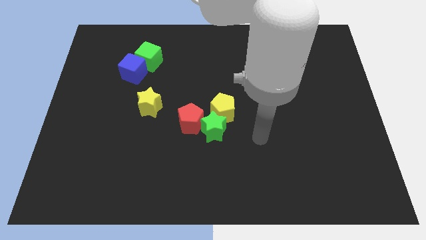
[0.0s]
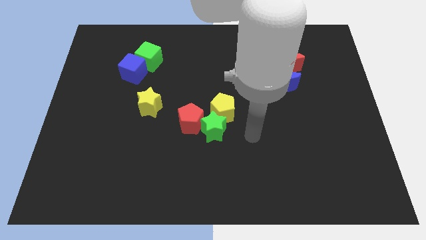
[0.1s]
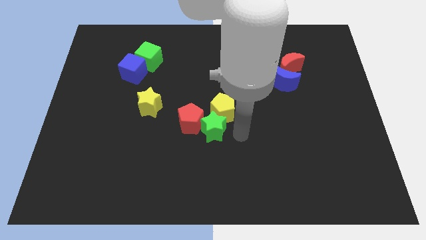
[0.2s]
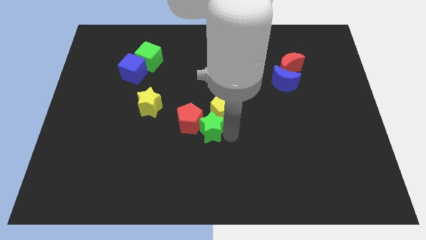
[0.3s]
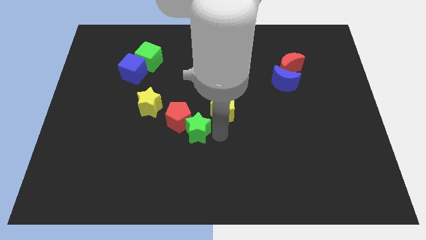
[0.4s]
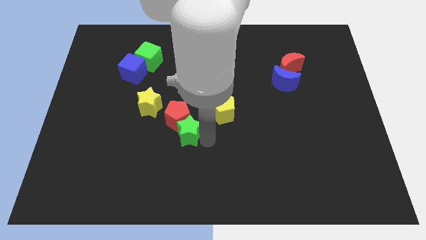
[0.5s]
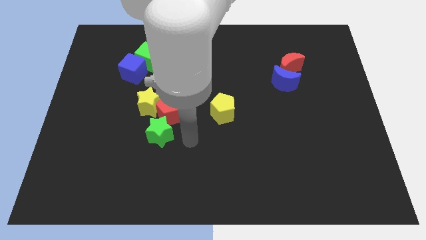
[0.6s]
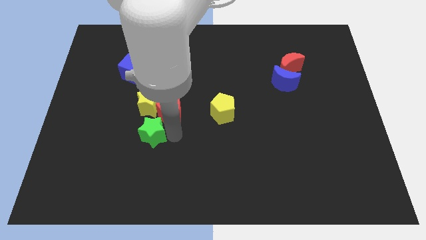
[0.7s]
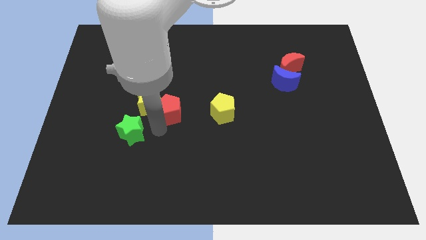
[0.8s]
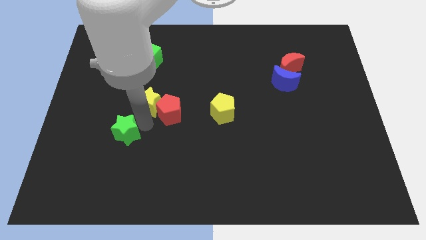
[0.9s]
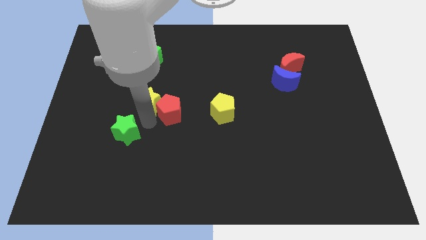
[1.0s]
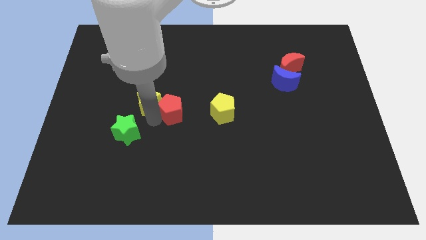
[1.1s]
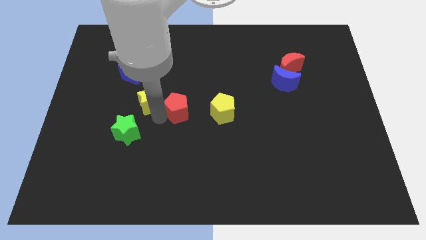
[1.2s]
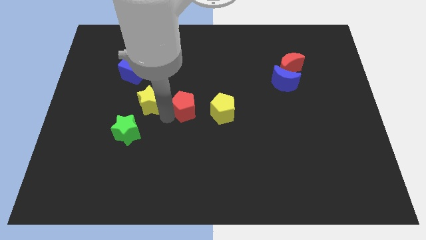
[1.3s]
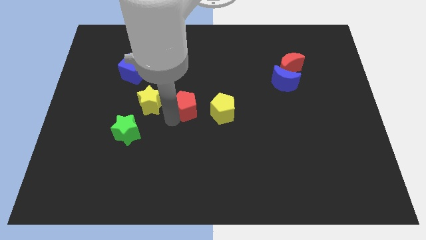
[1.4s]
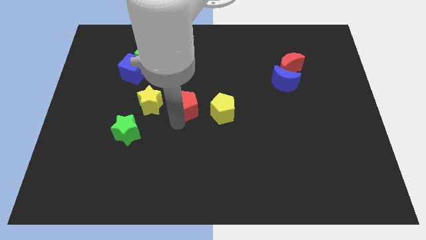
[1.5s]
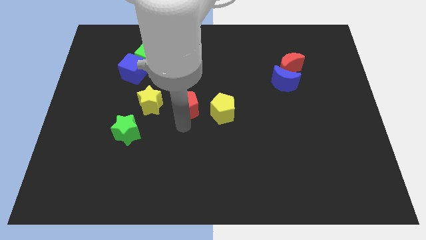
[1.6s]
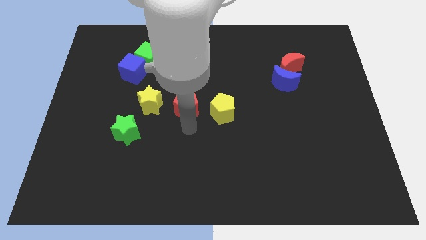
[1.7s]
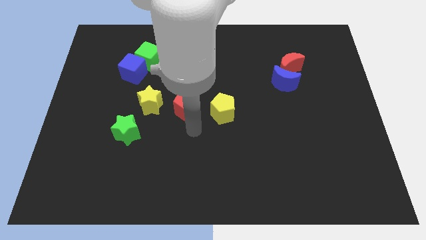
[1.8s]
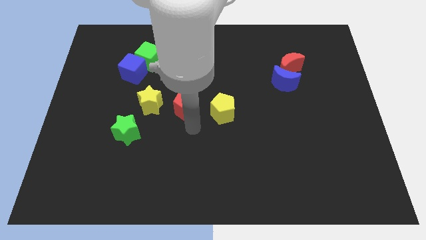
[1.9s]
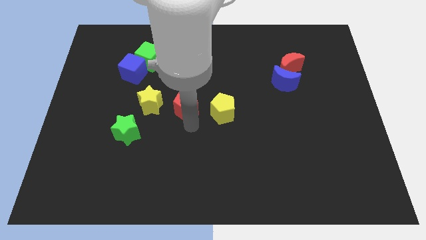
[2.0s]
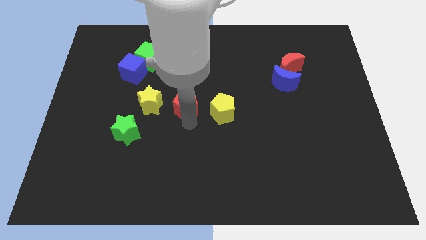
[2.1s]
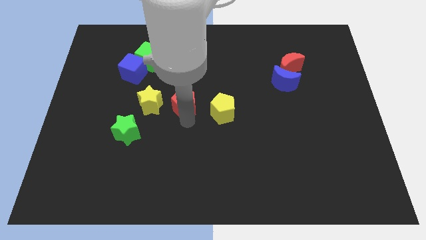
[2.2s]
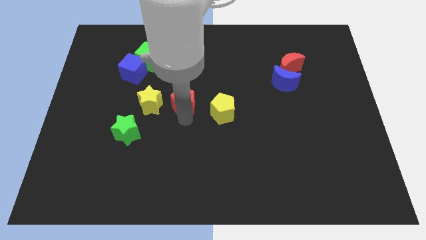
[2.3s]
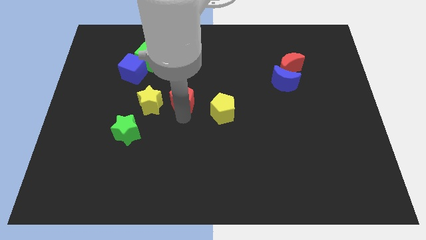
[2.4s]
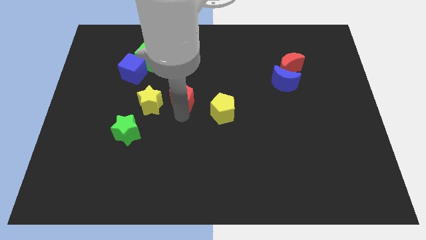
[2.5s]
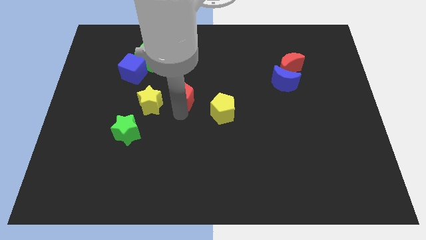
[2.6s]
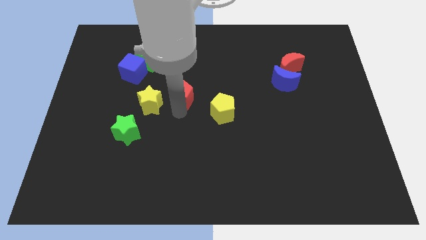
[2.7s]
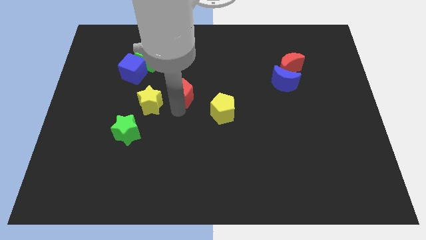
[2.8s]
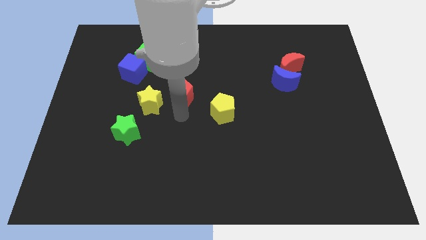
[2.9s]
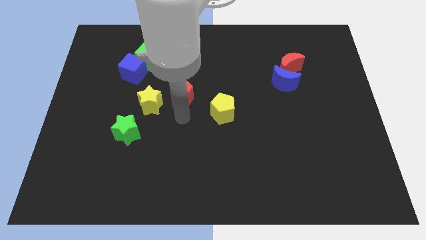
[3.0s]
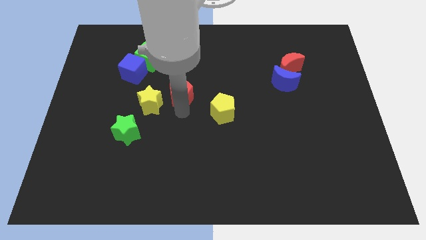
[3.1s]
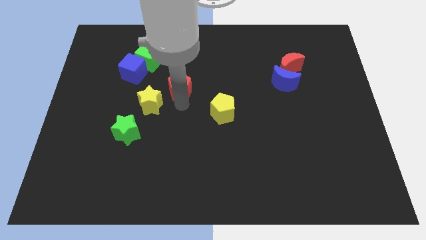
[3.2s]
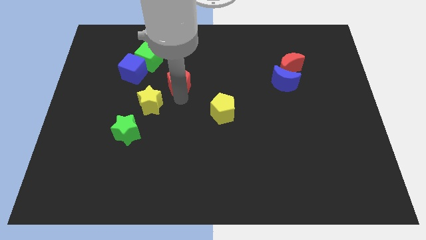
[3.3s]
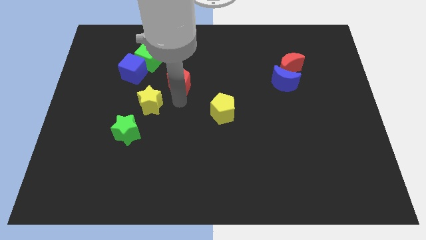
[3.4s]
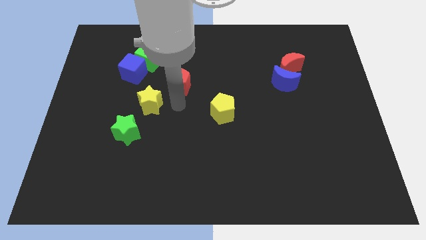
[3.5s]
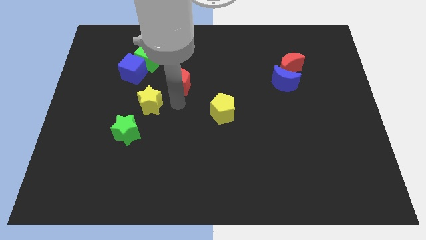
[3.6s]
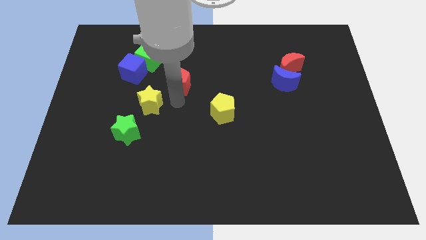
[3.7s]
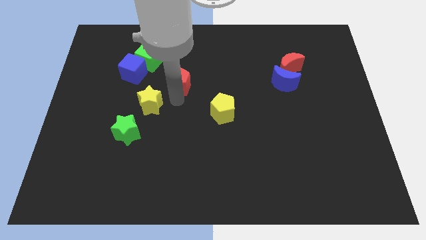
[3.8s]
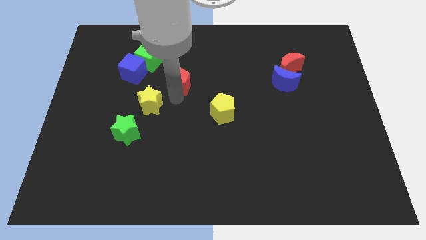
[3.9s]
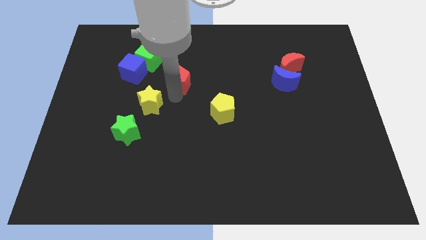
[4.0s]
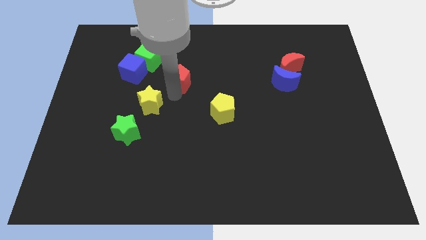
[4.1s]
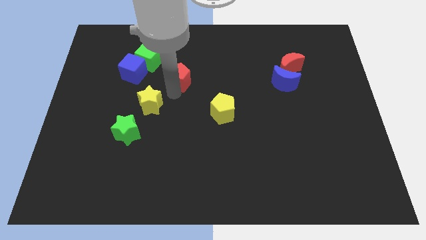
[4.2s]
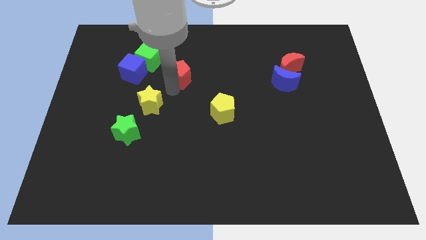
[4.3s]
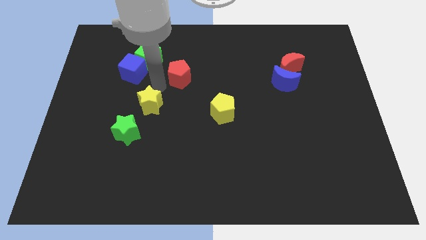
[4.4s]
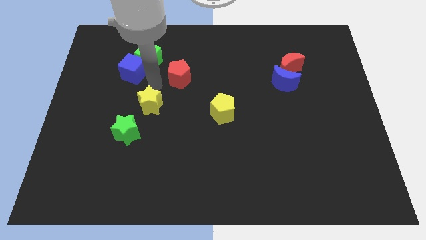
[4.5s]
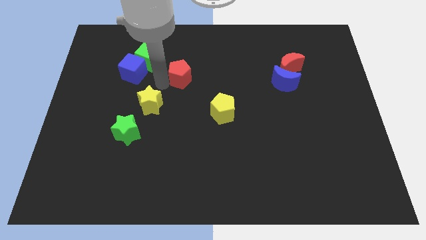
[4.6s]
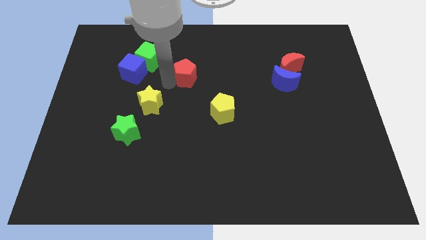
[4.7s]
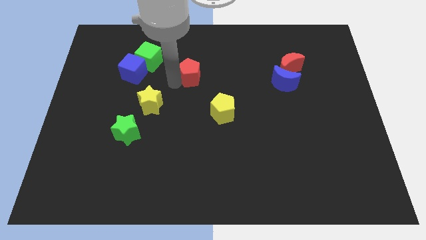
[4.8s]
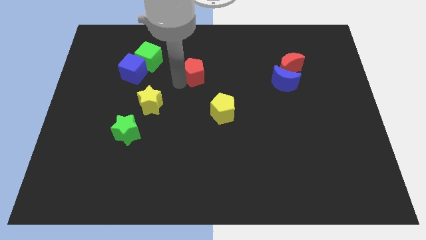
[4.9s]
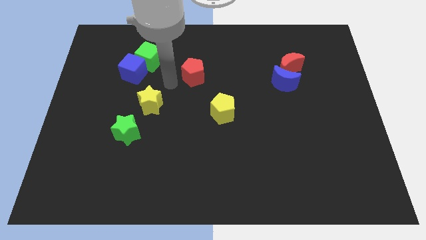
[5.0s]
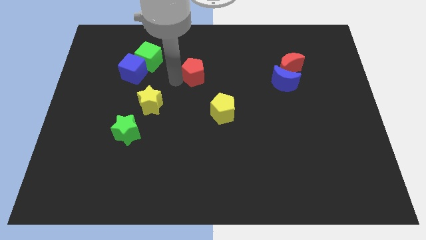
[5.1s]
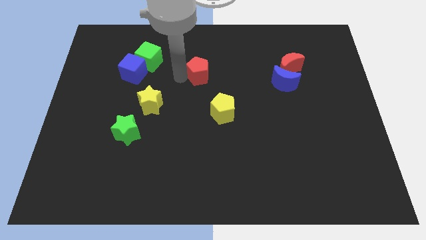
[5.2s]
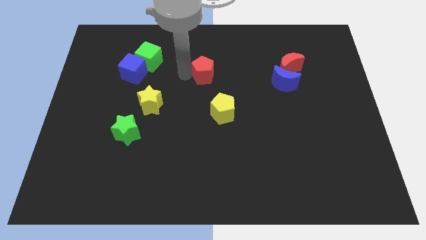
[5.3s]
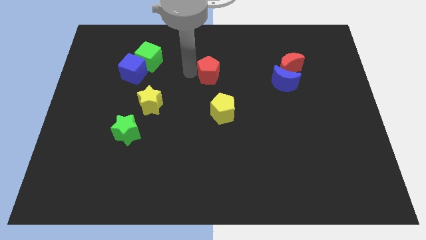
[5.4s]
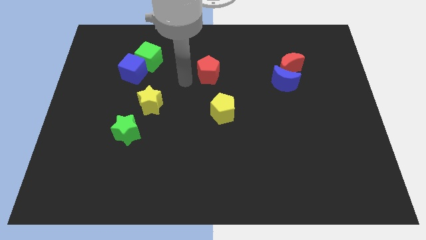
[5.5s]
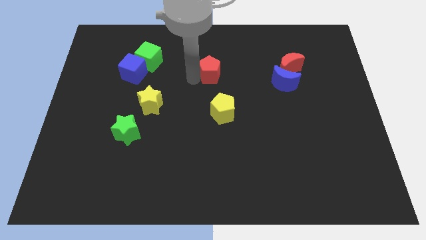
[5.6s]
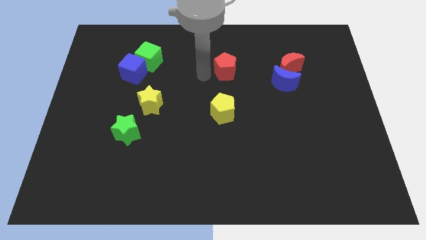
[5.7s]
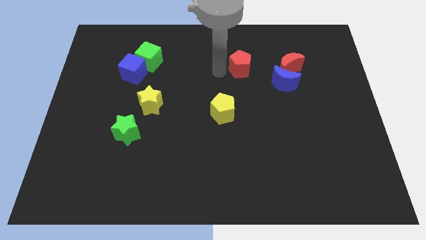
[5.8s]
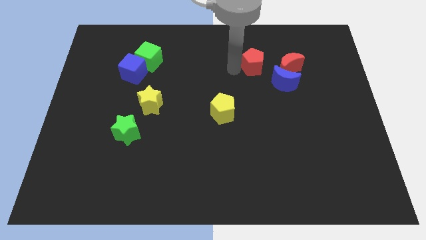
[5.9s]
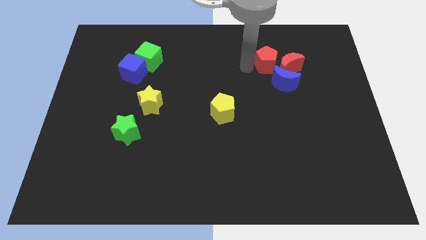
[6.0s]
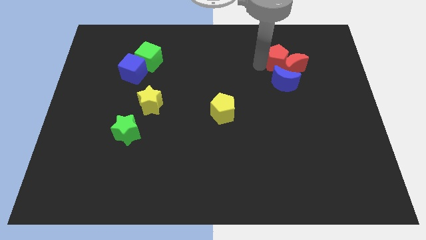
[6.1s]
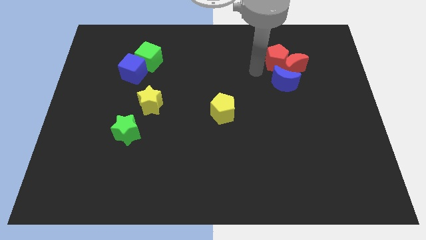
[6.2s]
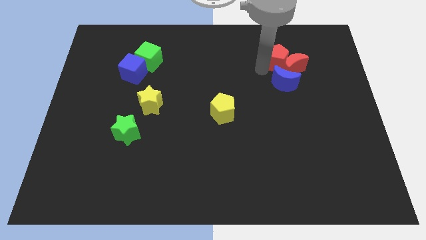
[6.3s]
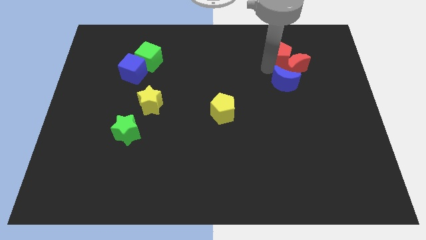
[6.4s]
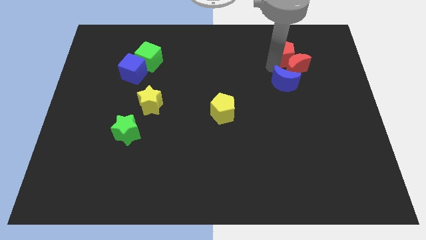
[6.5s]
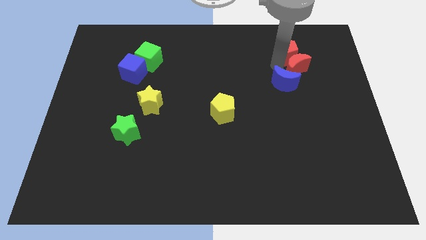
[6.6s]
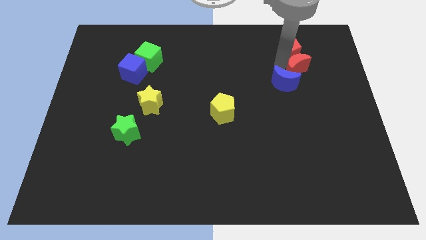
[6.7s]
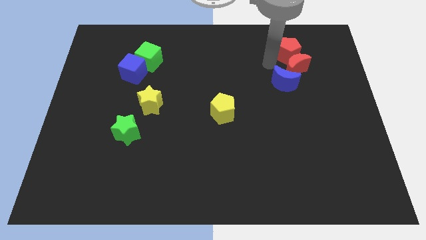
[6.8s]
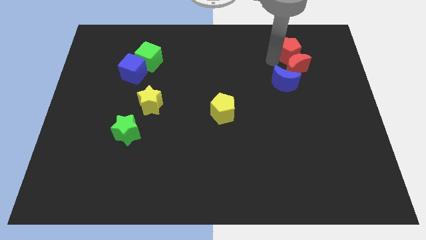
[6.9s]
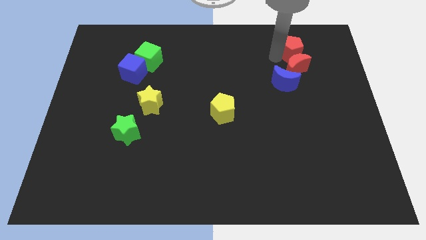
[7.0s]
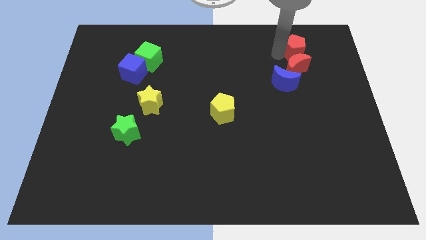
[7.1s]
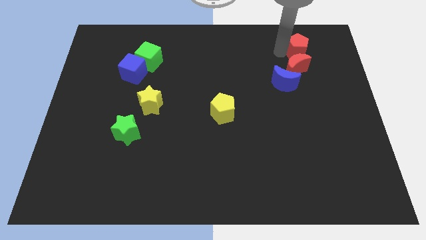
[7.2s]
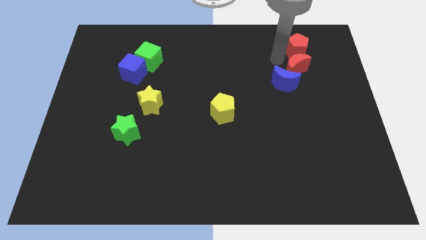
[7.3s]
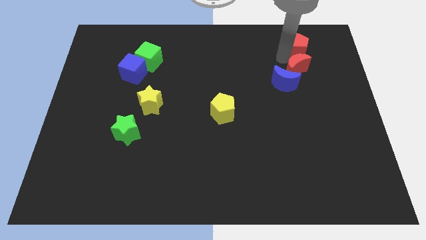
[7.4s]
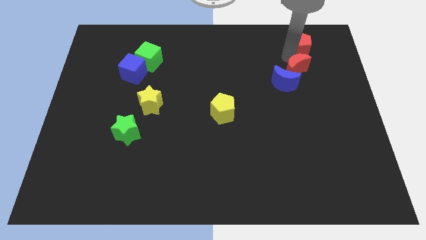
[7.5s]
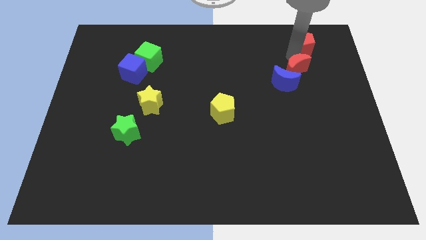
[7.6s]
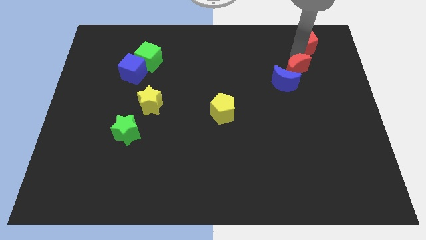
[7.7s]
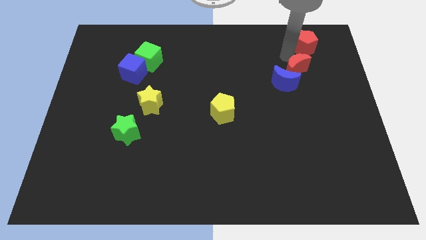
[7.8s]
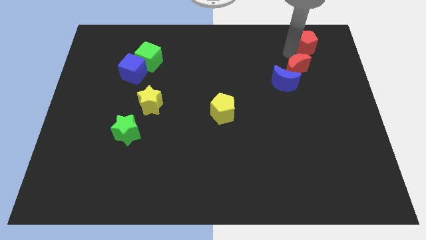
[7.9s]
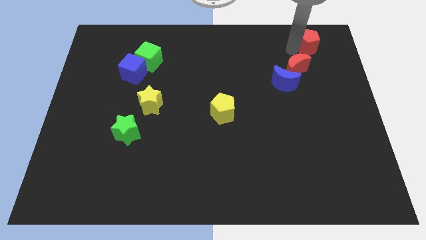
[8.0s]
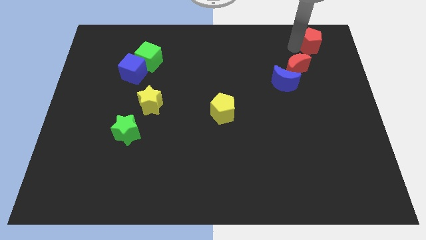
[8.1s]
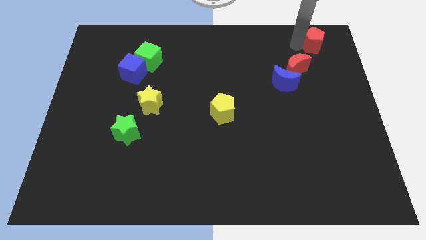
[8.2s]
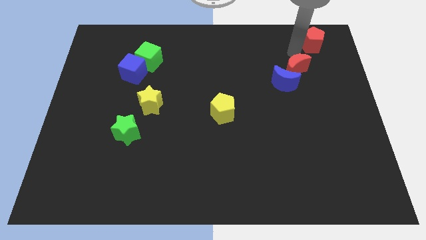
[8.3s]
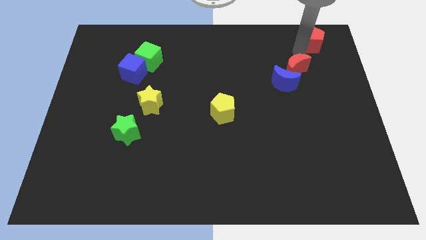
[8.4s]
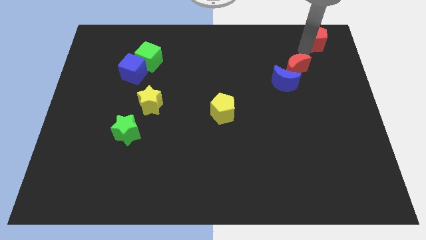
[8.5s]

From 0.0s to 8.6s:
move the red pentagon to the top right
